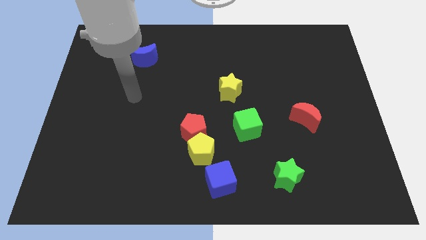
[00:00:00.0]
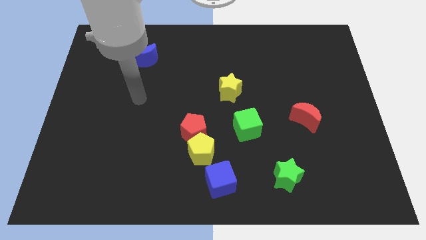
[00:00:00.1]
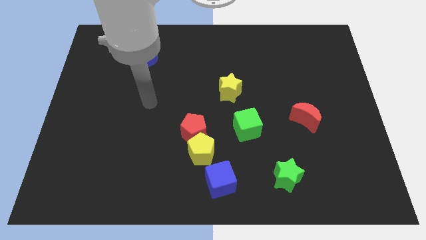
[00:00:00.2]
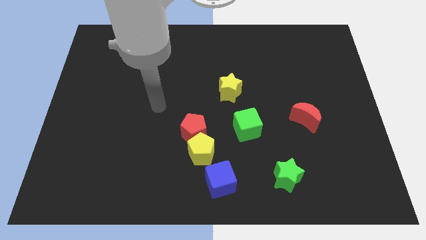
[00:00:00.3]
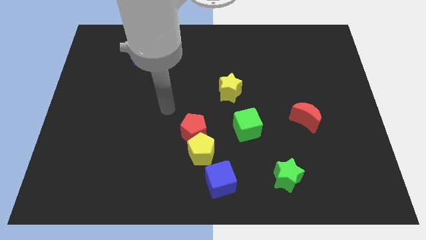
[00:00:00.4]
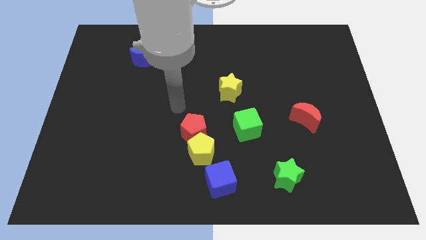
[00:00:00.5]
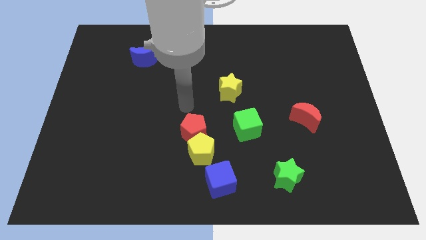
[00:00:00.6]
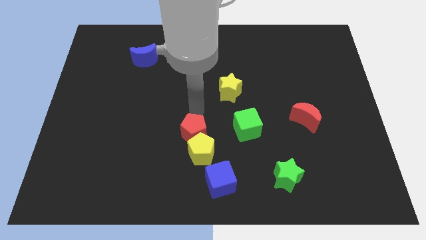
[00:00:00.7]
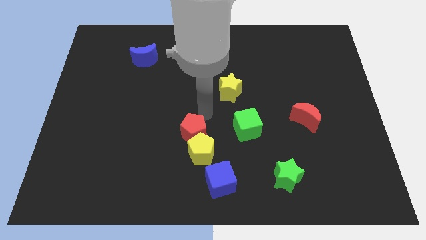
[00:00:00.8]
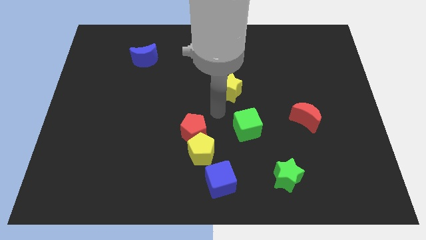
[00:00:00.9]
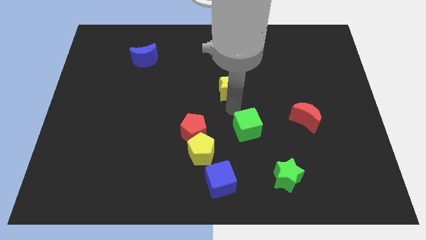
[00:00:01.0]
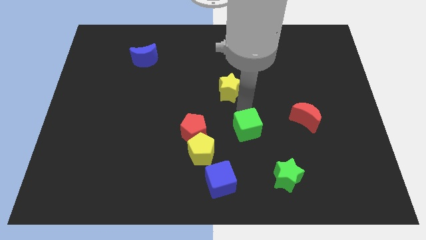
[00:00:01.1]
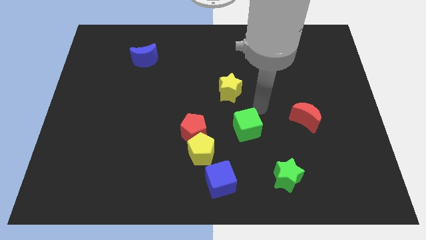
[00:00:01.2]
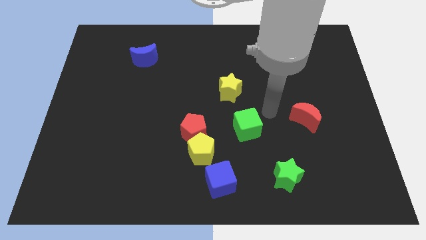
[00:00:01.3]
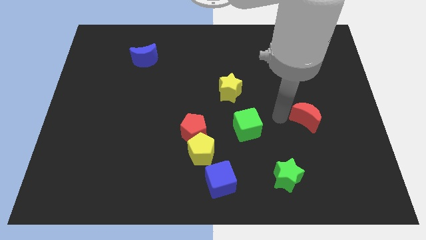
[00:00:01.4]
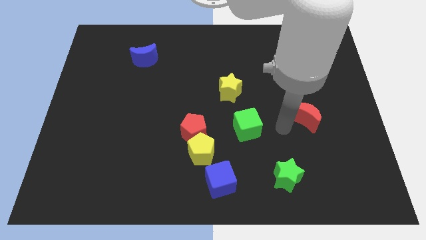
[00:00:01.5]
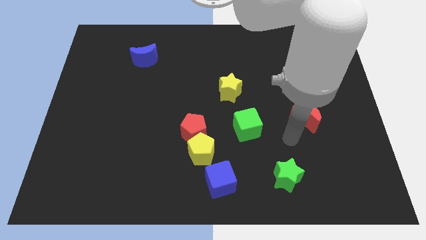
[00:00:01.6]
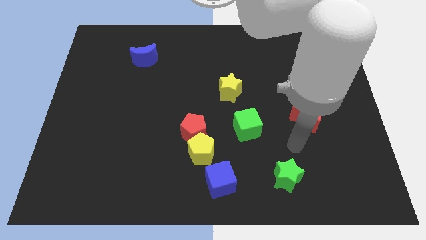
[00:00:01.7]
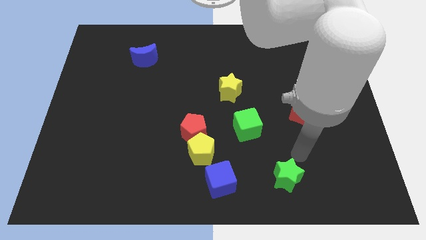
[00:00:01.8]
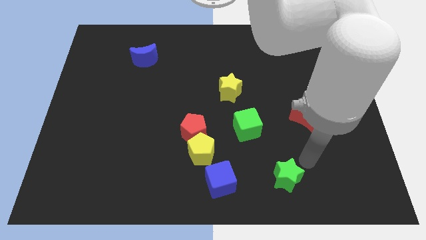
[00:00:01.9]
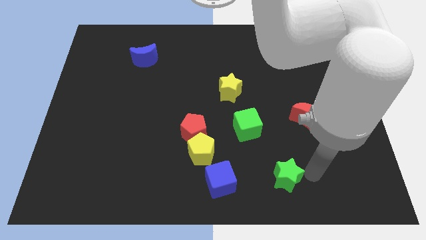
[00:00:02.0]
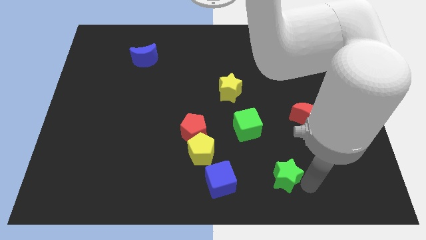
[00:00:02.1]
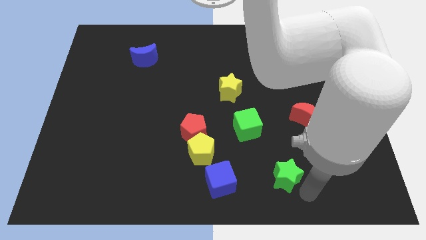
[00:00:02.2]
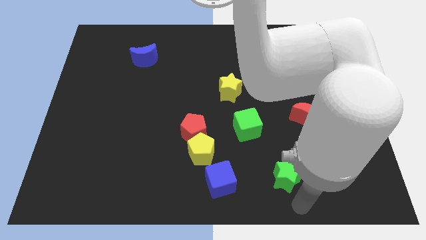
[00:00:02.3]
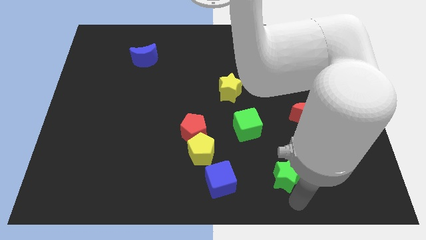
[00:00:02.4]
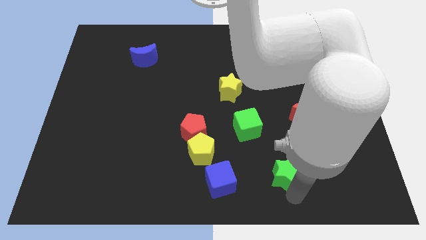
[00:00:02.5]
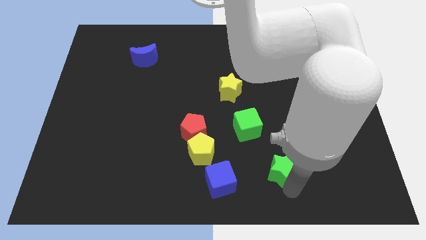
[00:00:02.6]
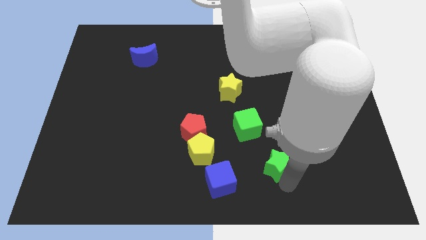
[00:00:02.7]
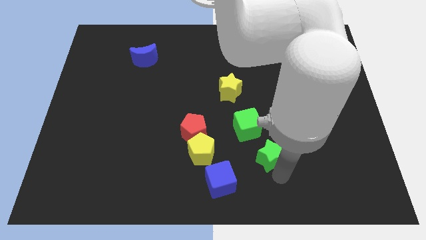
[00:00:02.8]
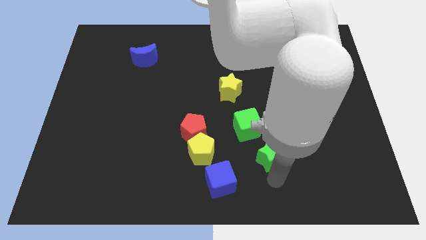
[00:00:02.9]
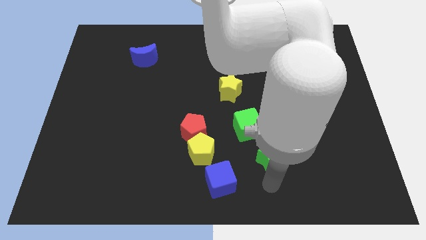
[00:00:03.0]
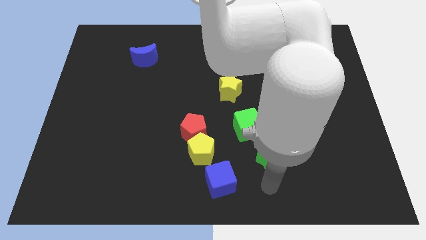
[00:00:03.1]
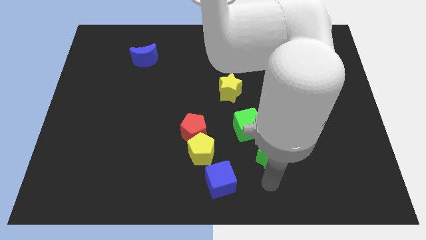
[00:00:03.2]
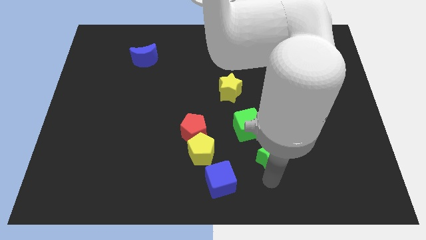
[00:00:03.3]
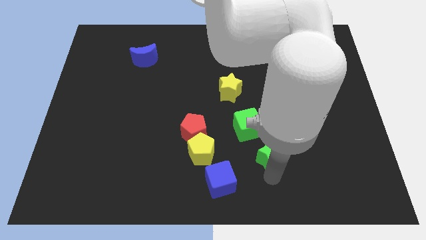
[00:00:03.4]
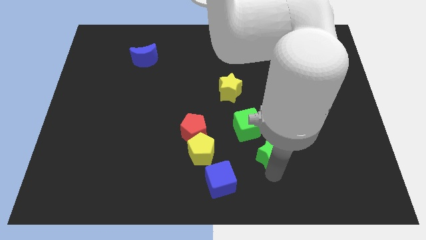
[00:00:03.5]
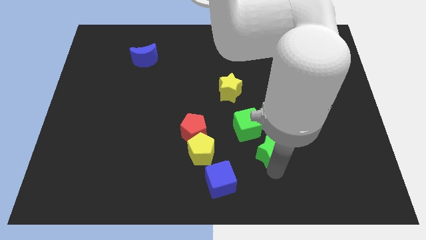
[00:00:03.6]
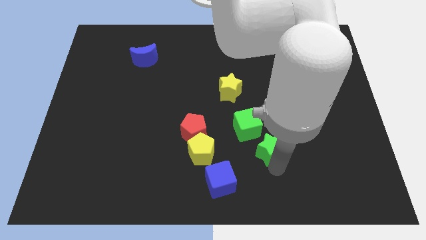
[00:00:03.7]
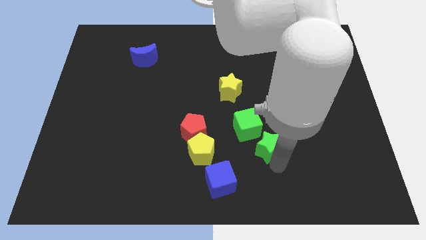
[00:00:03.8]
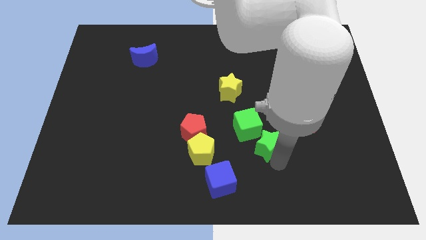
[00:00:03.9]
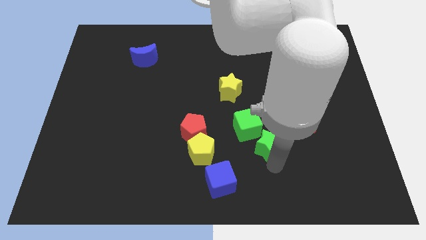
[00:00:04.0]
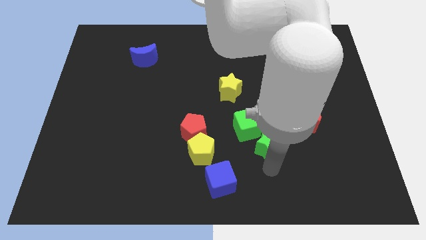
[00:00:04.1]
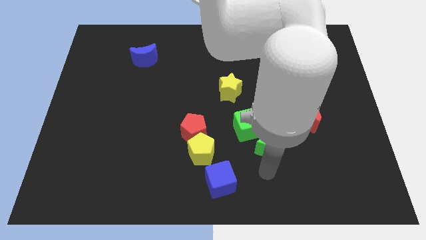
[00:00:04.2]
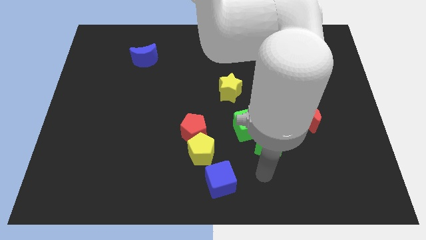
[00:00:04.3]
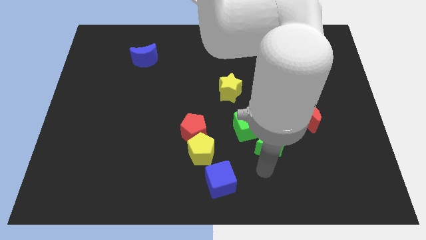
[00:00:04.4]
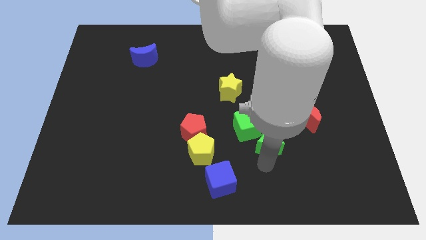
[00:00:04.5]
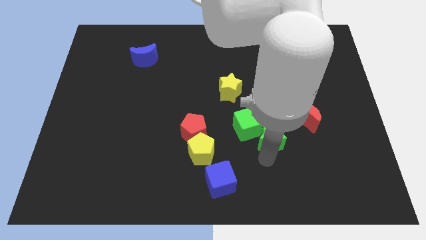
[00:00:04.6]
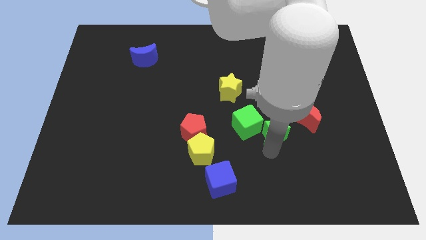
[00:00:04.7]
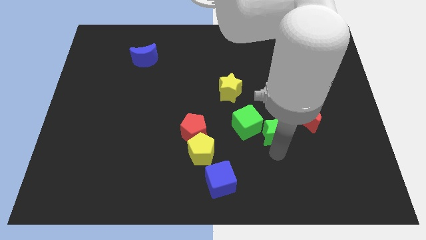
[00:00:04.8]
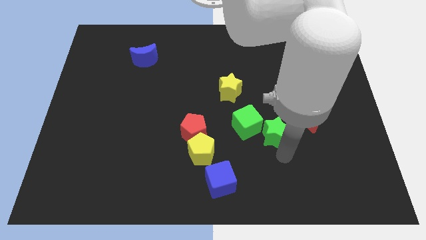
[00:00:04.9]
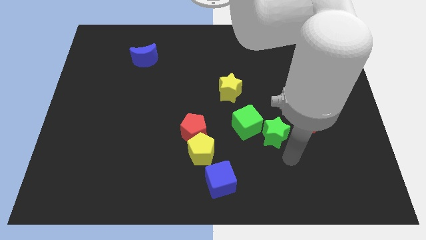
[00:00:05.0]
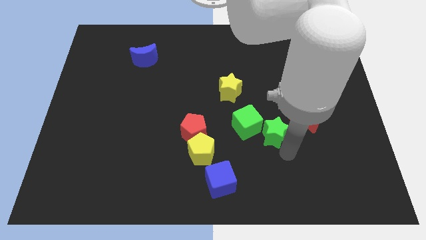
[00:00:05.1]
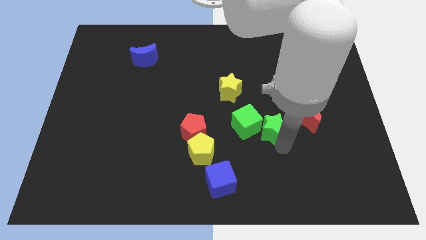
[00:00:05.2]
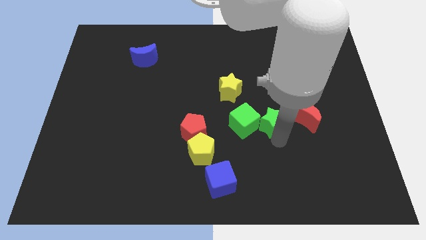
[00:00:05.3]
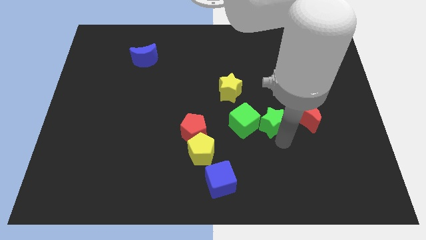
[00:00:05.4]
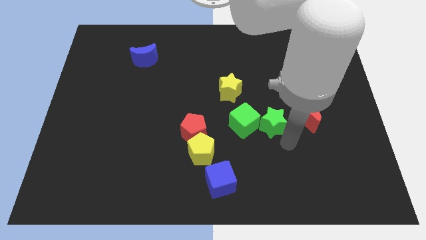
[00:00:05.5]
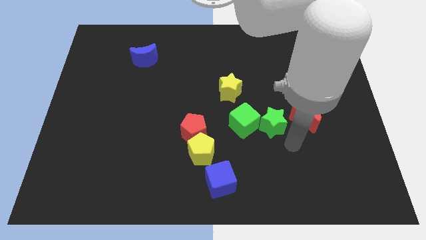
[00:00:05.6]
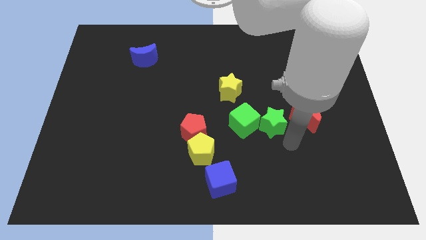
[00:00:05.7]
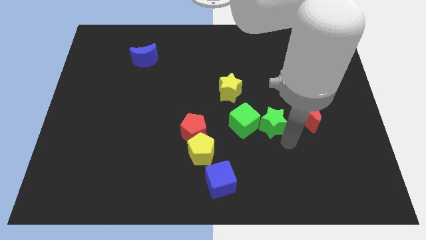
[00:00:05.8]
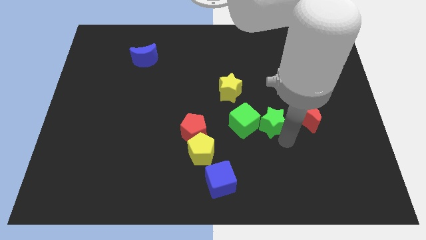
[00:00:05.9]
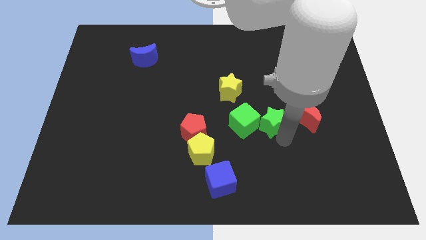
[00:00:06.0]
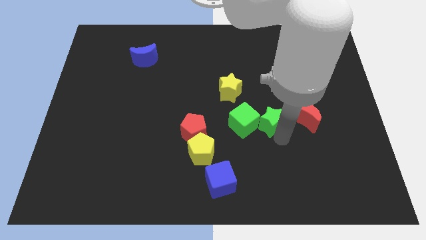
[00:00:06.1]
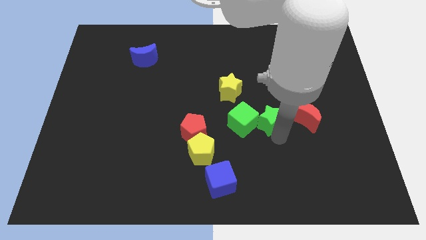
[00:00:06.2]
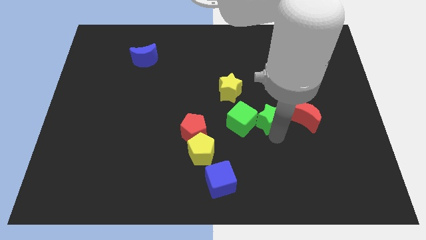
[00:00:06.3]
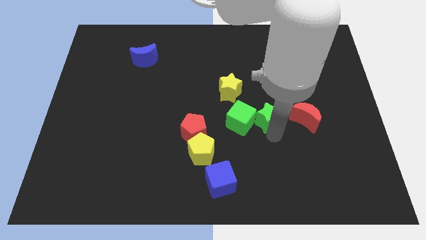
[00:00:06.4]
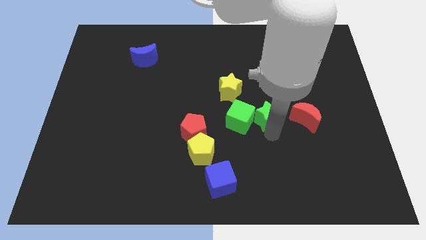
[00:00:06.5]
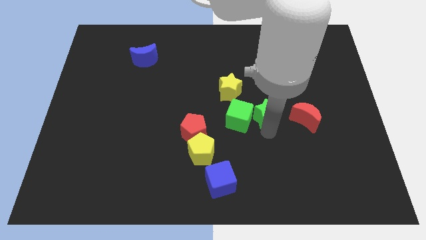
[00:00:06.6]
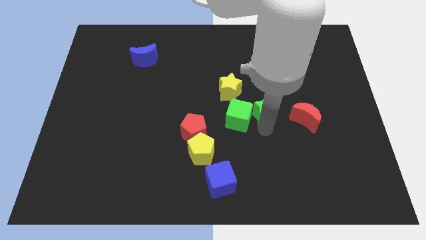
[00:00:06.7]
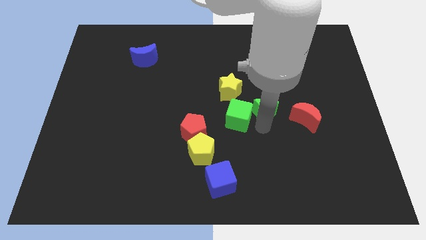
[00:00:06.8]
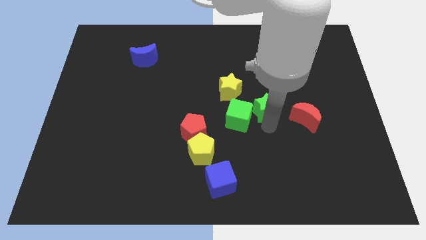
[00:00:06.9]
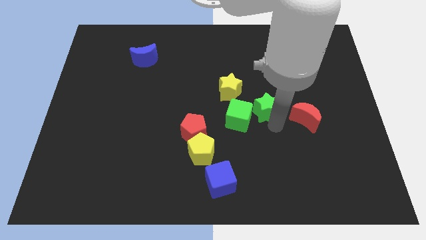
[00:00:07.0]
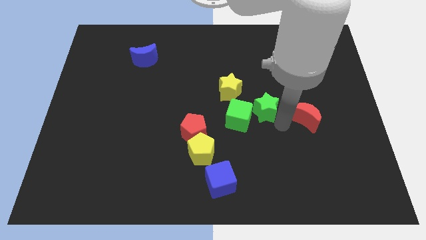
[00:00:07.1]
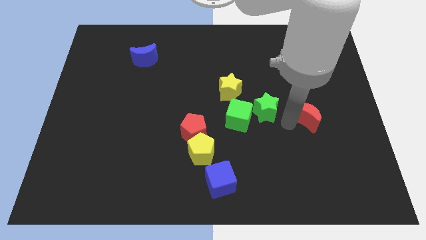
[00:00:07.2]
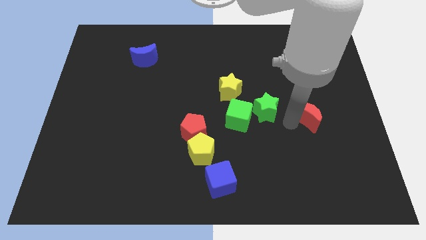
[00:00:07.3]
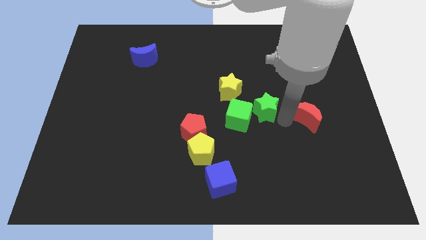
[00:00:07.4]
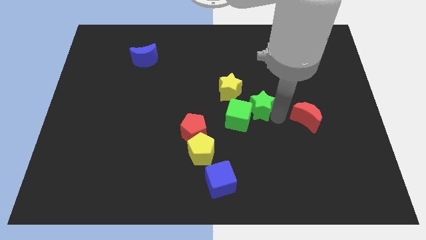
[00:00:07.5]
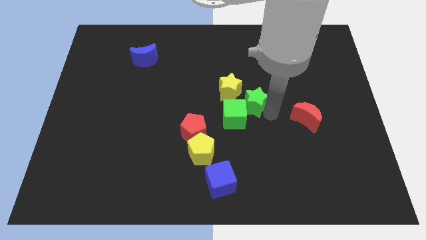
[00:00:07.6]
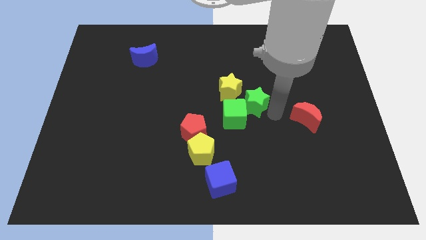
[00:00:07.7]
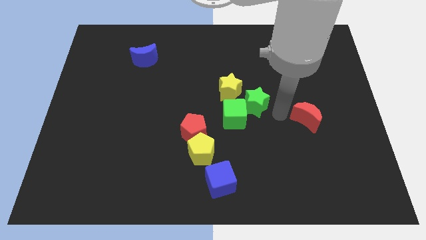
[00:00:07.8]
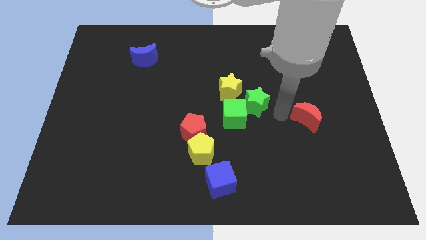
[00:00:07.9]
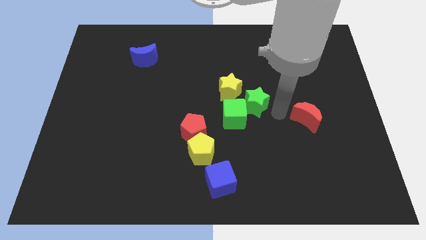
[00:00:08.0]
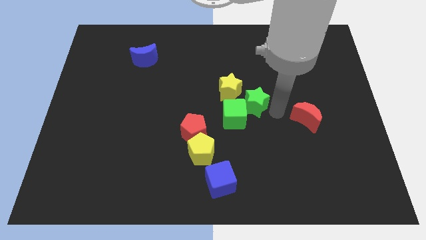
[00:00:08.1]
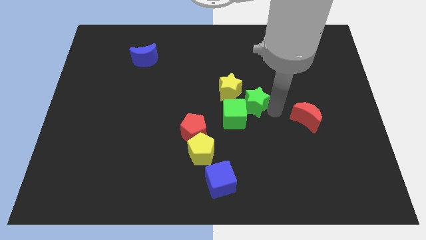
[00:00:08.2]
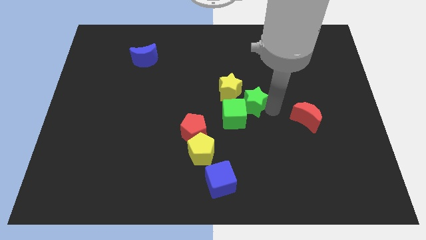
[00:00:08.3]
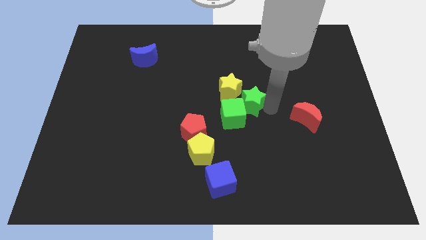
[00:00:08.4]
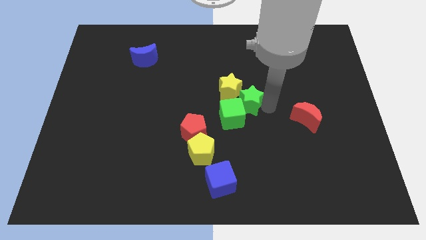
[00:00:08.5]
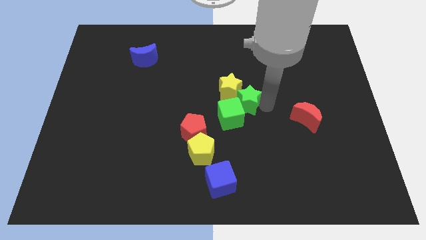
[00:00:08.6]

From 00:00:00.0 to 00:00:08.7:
slide the green star next to the yellow star
